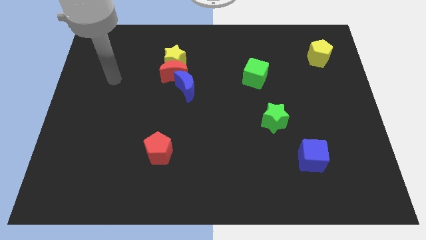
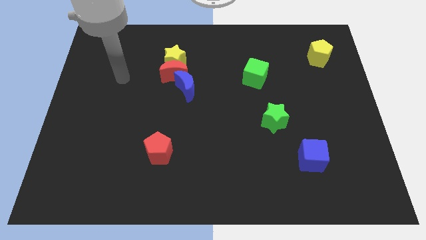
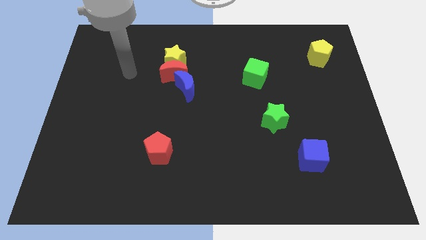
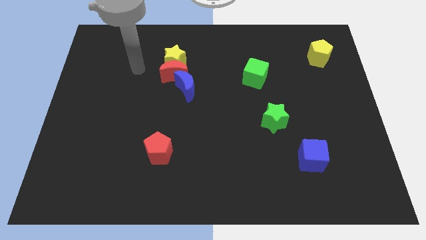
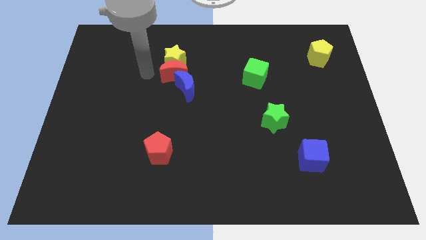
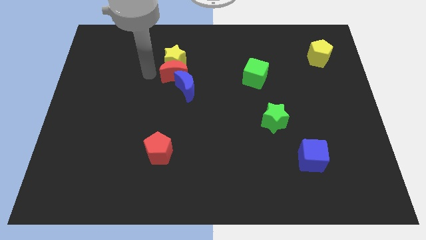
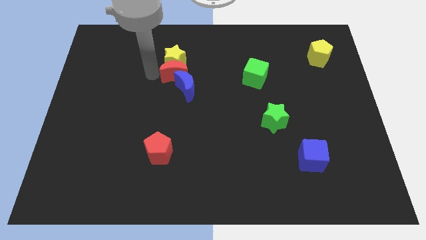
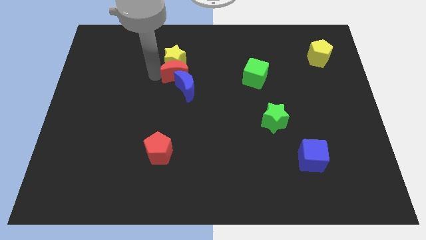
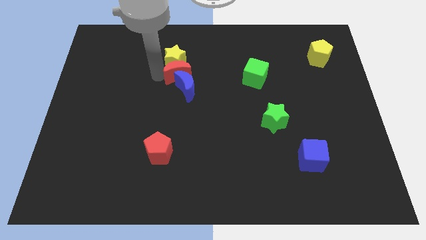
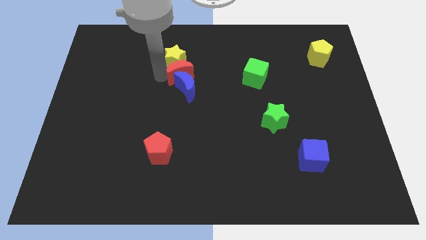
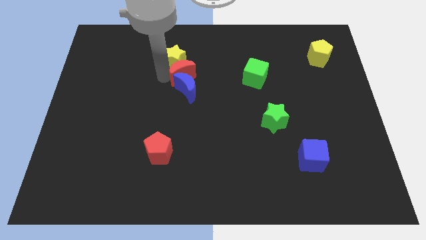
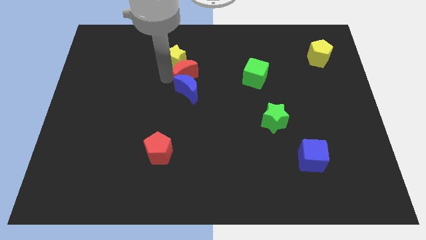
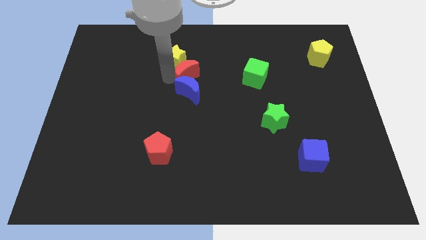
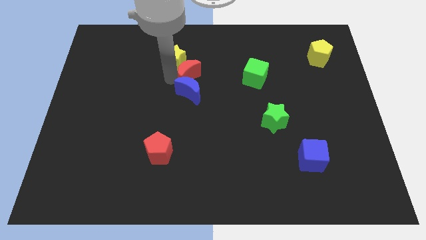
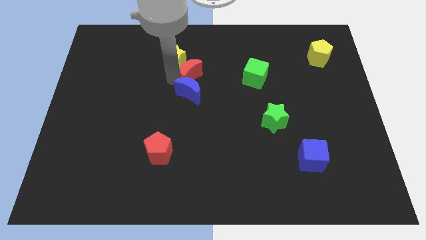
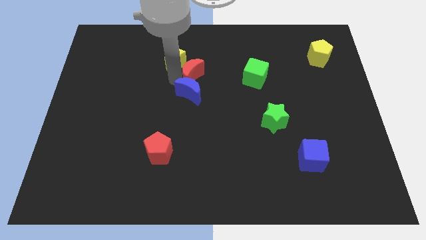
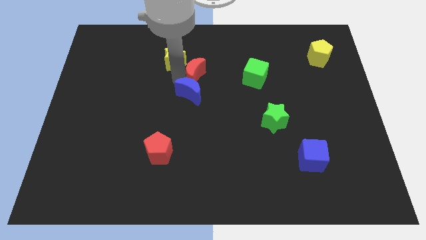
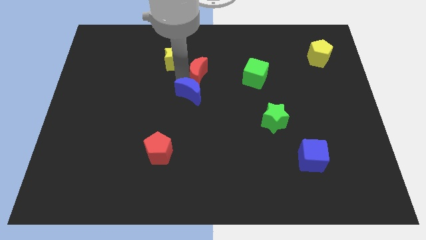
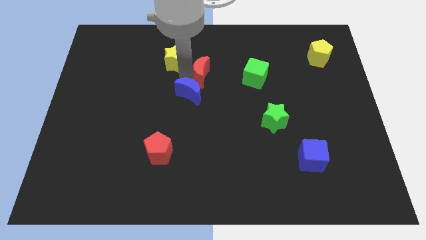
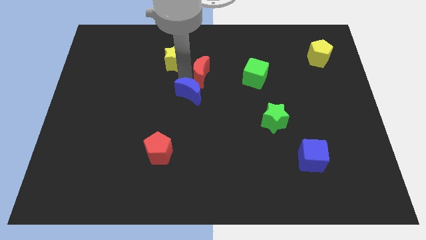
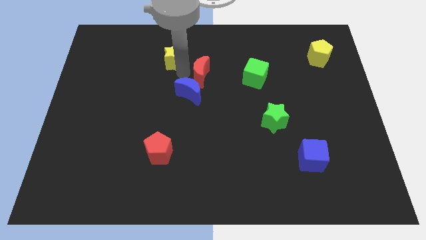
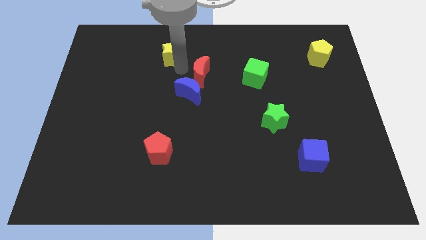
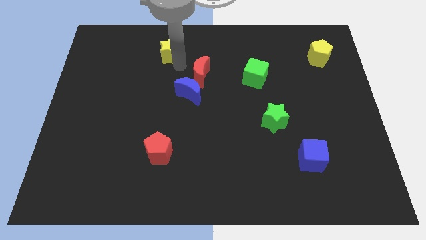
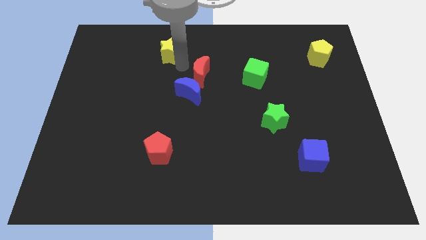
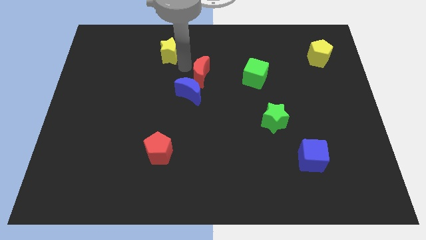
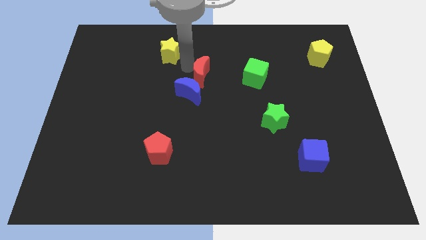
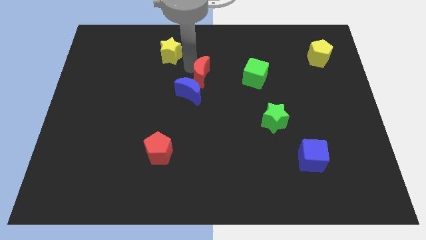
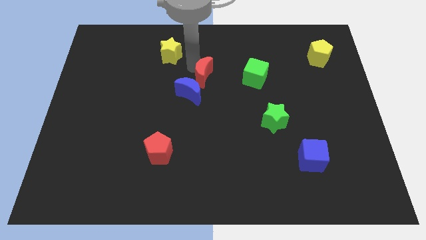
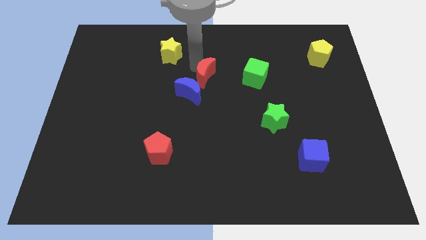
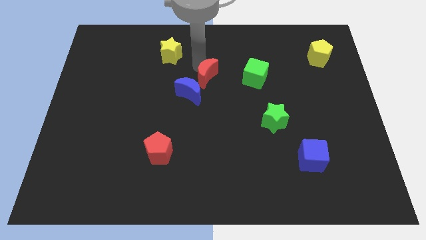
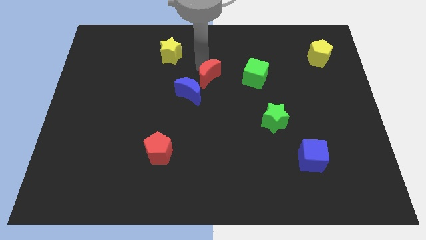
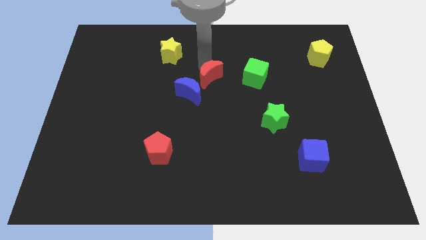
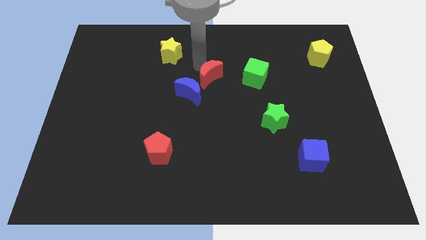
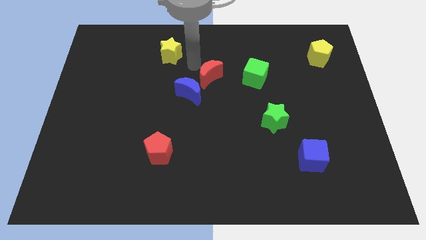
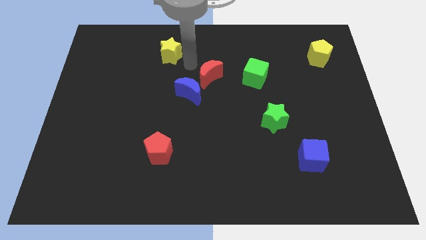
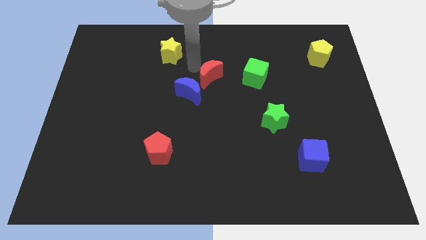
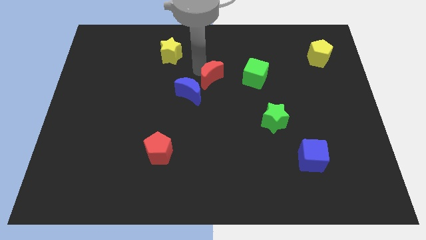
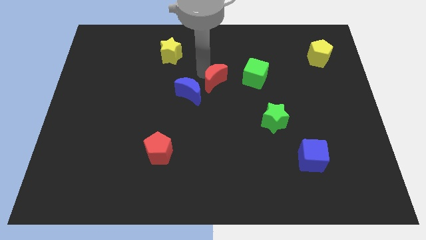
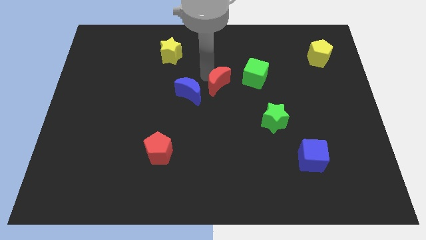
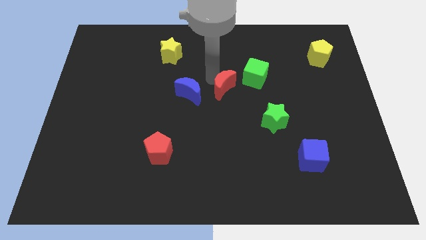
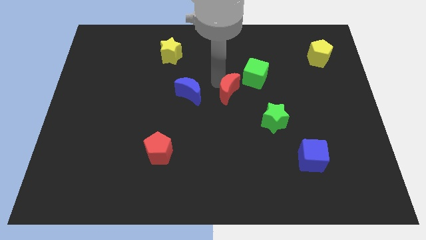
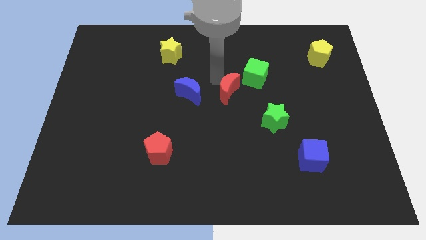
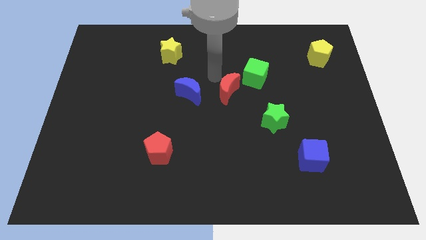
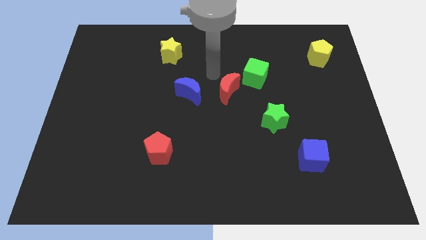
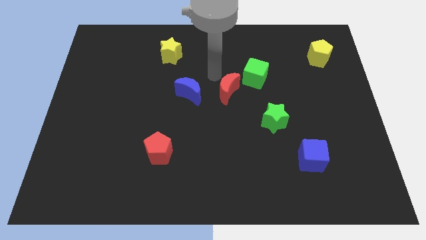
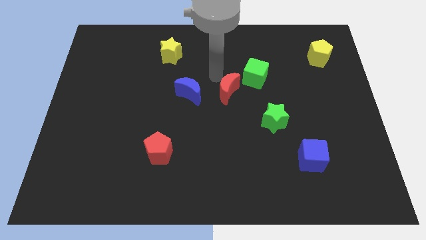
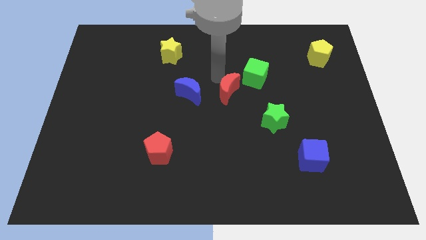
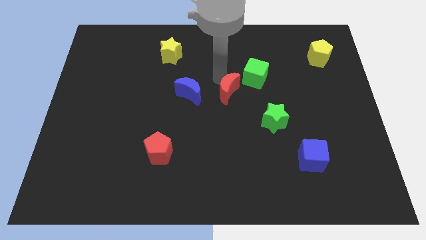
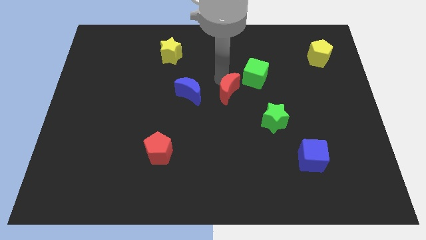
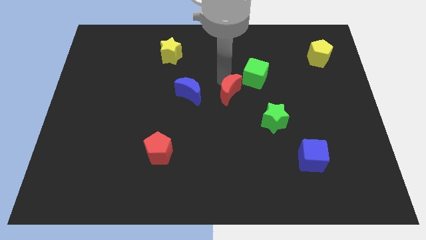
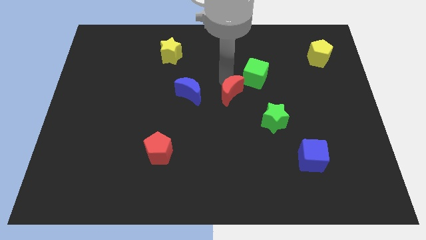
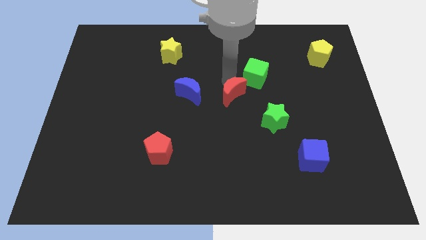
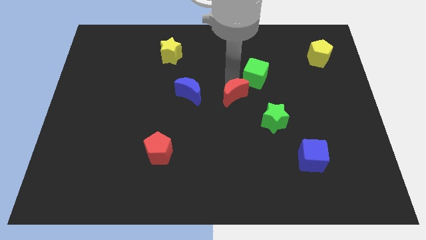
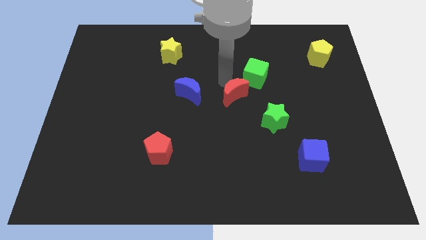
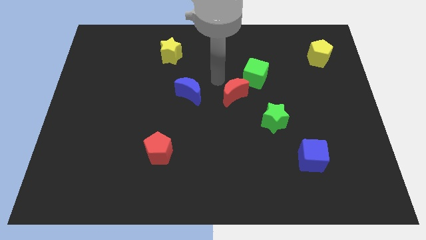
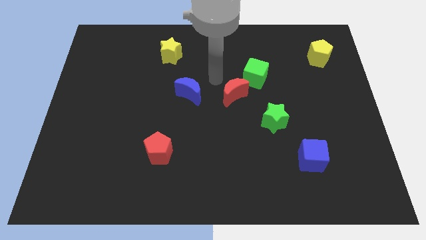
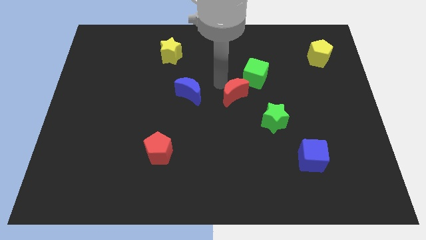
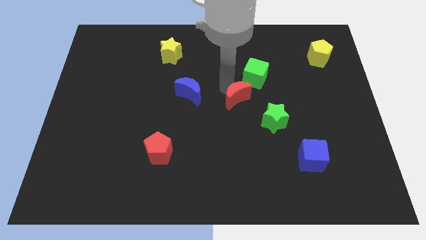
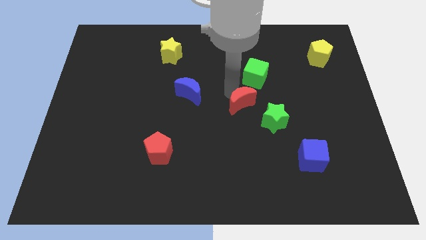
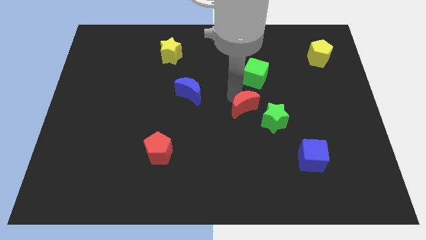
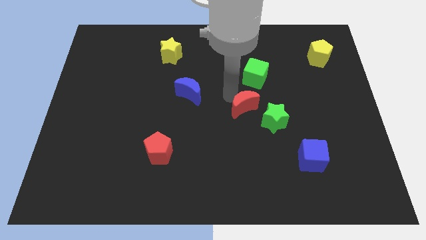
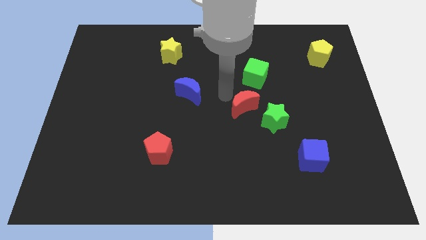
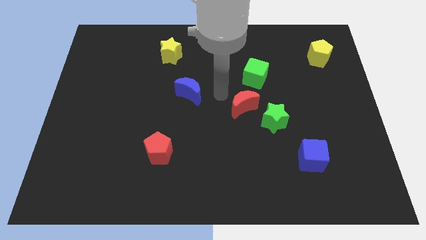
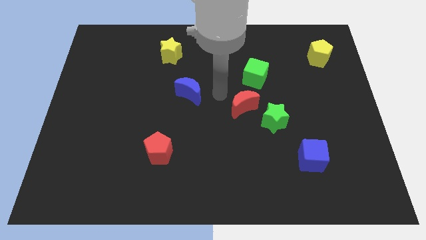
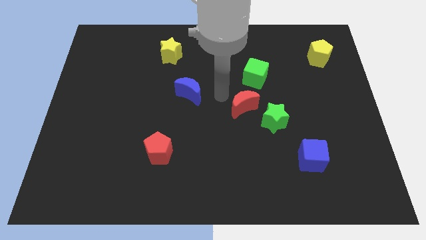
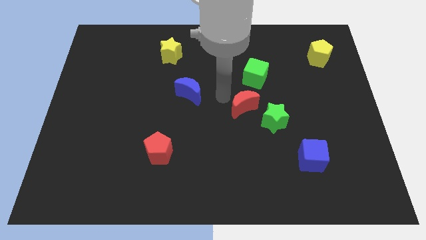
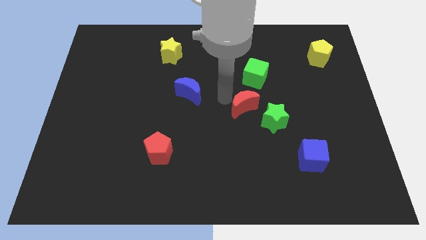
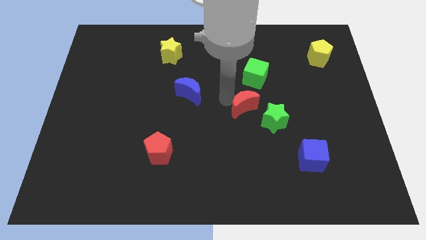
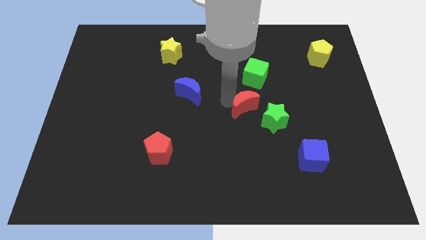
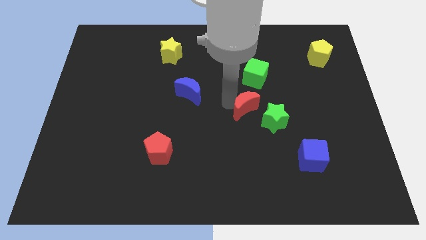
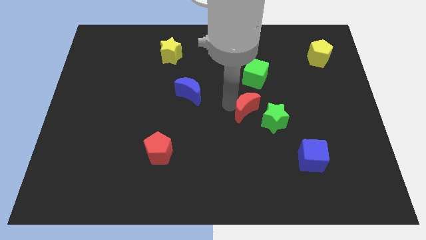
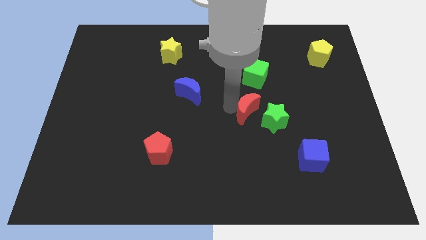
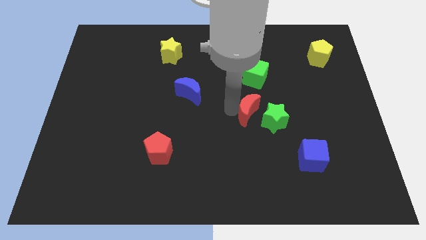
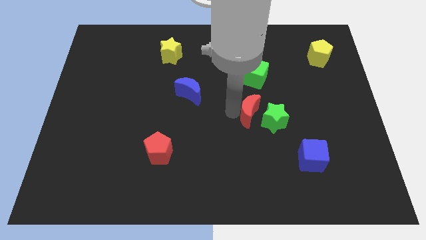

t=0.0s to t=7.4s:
put the red moon to the green star
